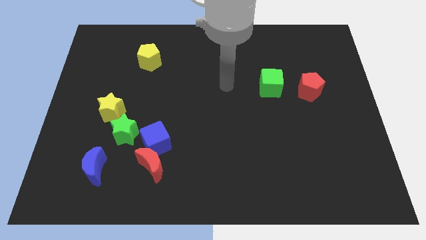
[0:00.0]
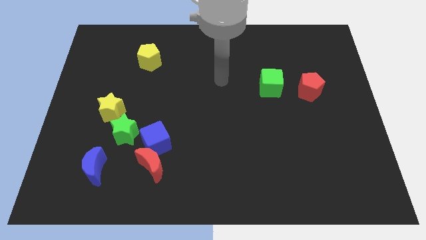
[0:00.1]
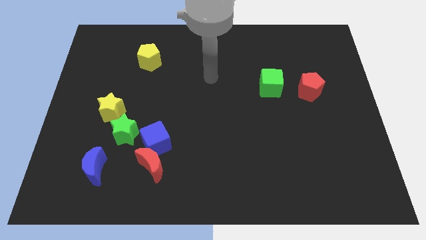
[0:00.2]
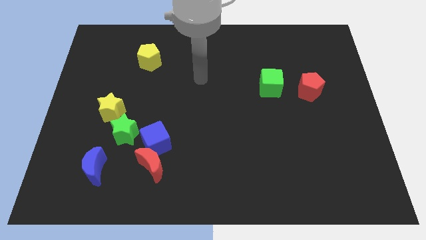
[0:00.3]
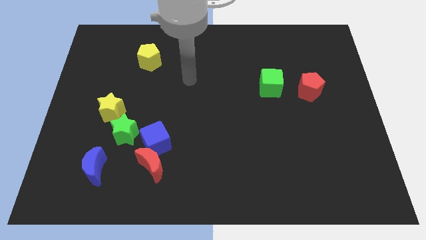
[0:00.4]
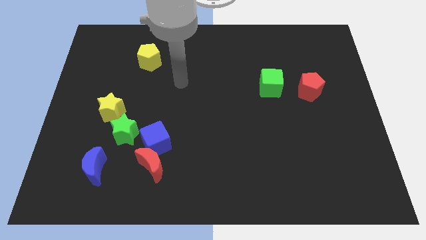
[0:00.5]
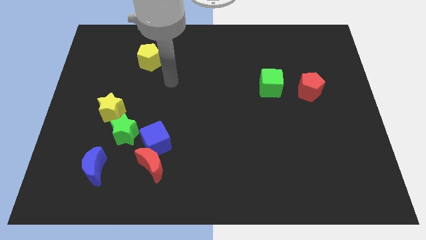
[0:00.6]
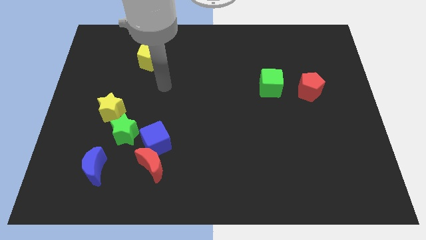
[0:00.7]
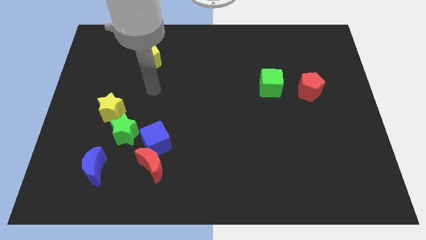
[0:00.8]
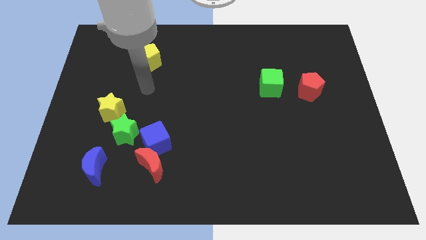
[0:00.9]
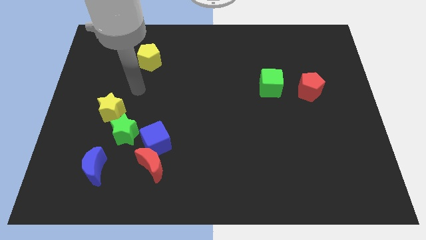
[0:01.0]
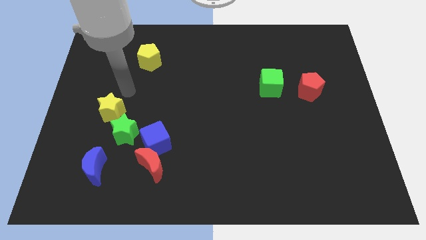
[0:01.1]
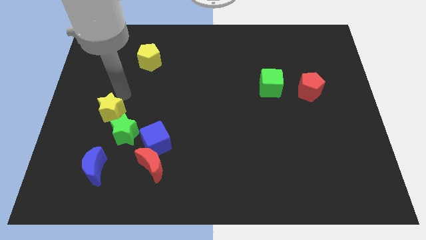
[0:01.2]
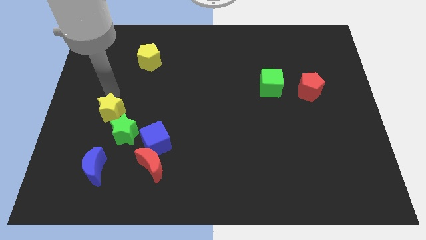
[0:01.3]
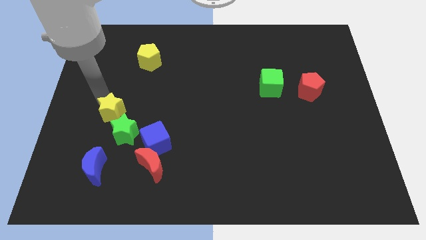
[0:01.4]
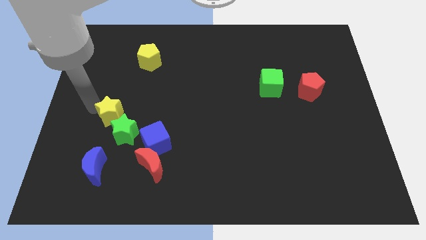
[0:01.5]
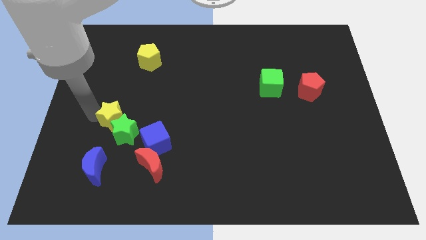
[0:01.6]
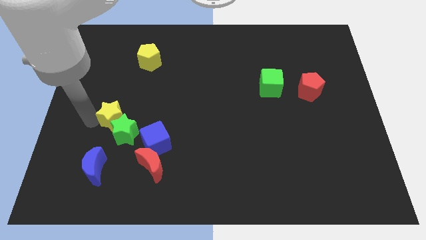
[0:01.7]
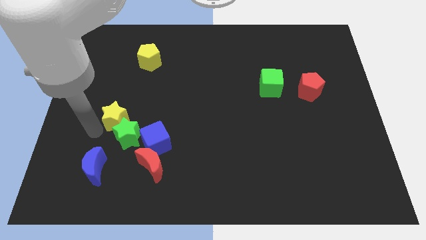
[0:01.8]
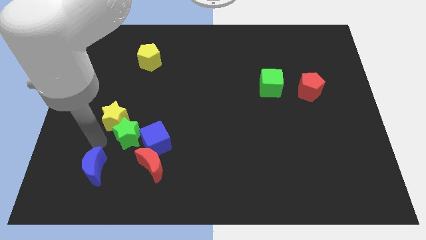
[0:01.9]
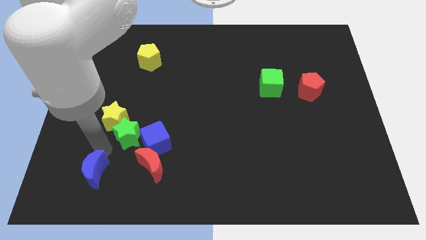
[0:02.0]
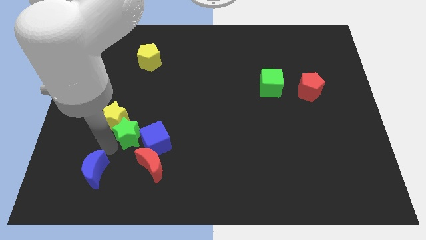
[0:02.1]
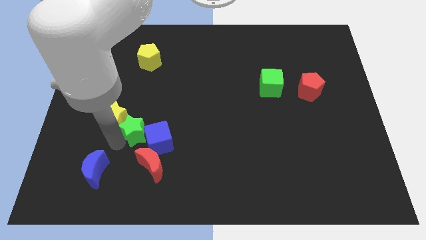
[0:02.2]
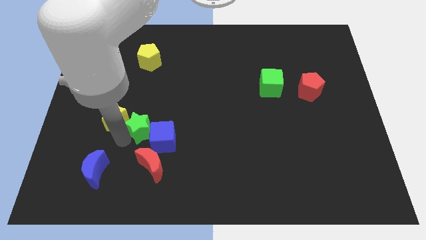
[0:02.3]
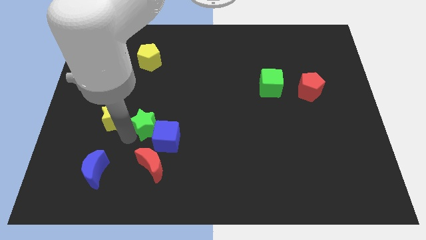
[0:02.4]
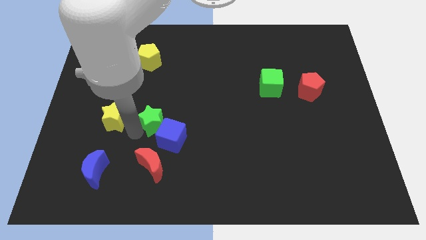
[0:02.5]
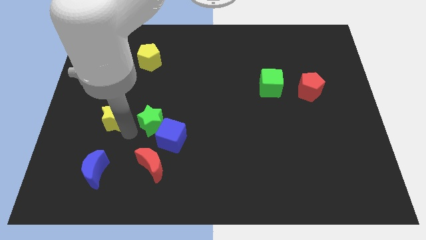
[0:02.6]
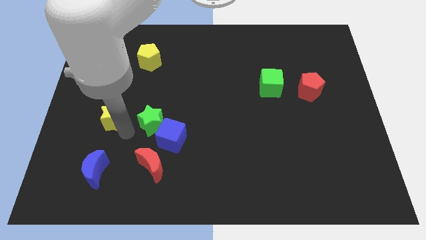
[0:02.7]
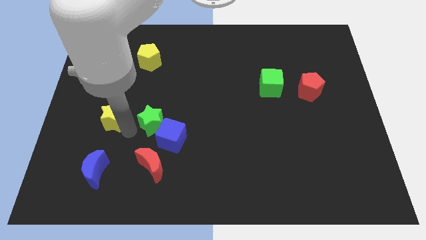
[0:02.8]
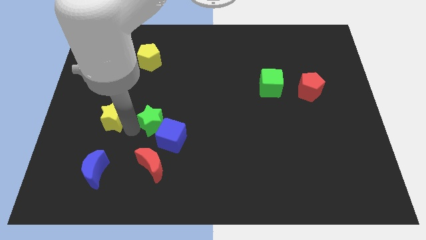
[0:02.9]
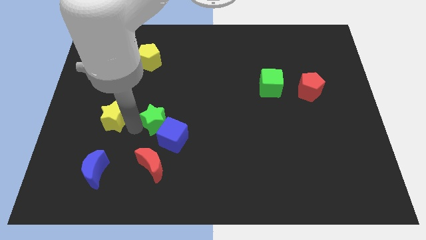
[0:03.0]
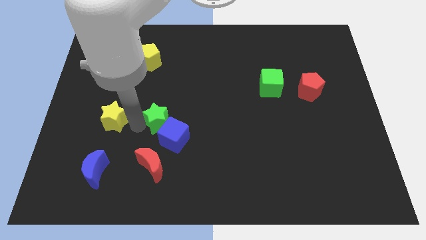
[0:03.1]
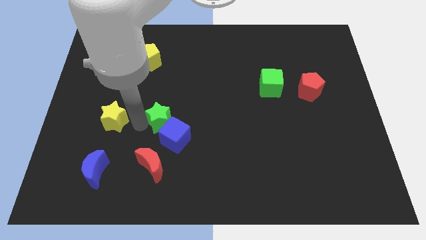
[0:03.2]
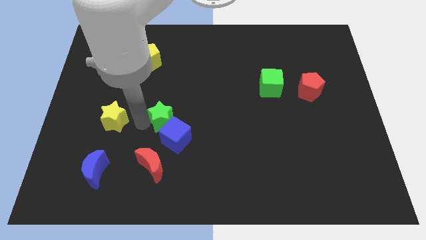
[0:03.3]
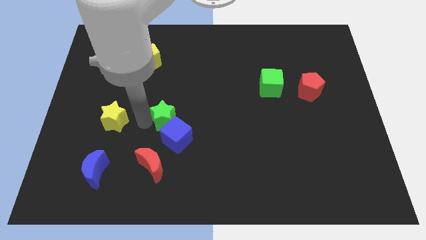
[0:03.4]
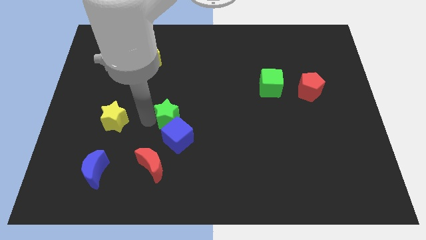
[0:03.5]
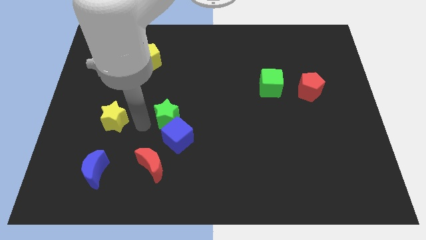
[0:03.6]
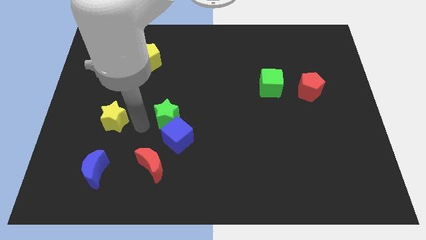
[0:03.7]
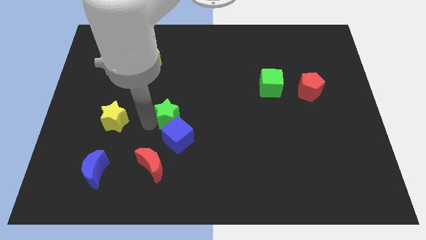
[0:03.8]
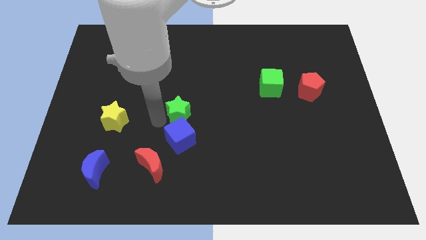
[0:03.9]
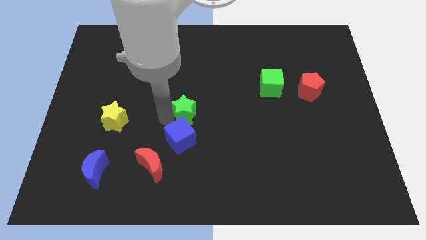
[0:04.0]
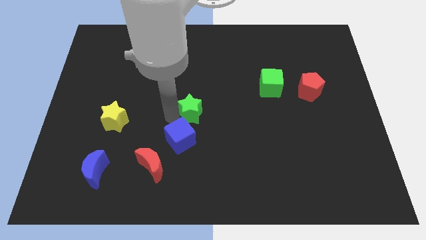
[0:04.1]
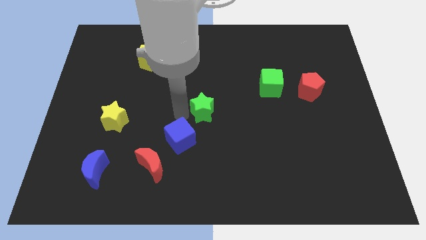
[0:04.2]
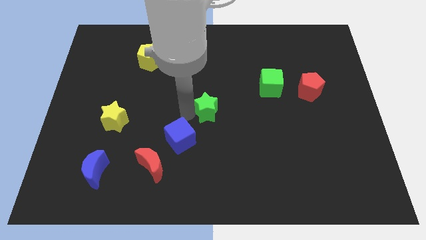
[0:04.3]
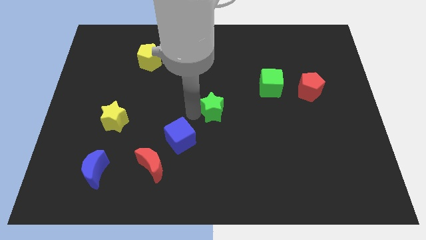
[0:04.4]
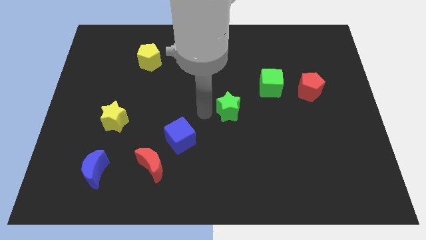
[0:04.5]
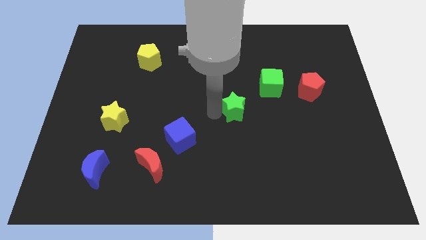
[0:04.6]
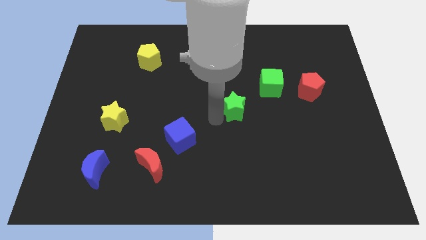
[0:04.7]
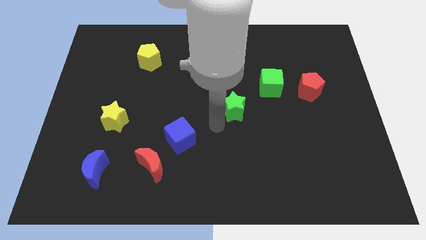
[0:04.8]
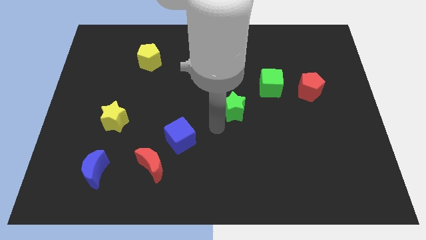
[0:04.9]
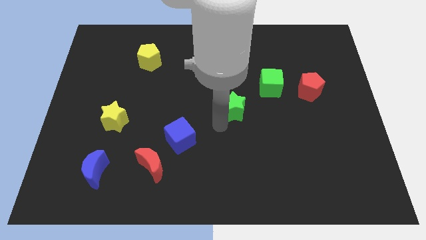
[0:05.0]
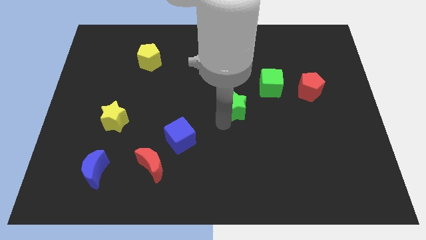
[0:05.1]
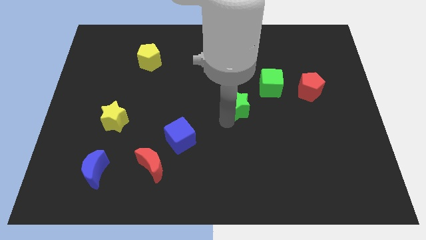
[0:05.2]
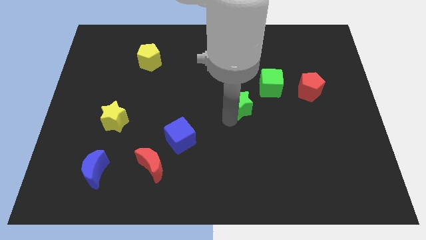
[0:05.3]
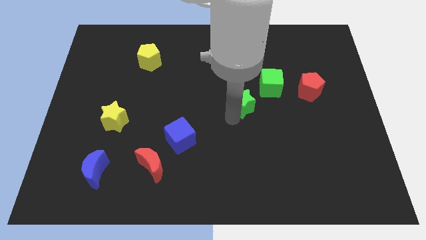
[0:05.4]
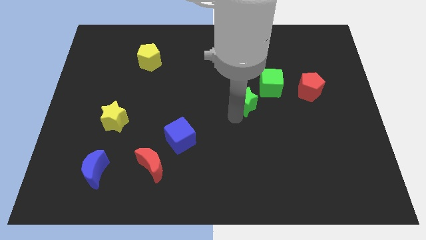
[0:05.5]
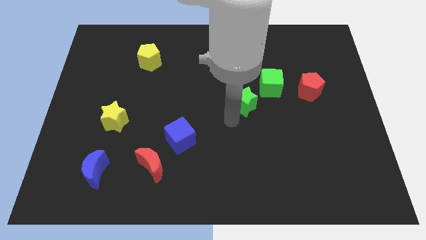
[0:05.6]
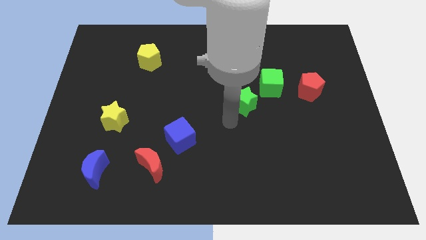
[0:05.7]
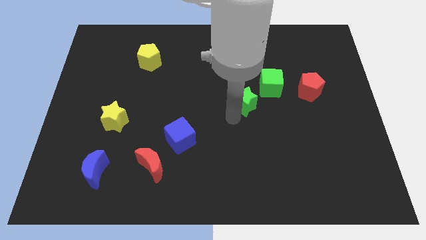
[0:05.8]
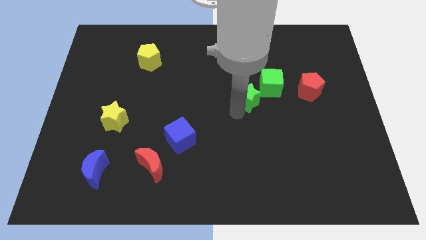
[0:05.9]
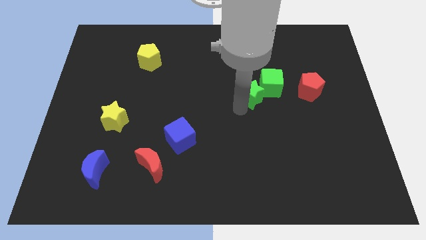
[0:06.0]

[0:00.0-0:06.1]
move the green star close to the green cube

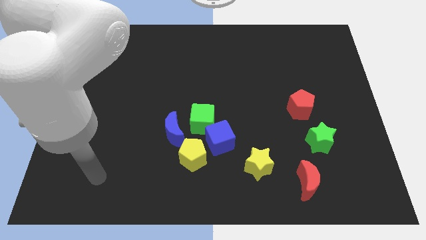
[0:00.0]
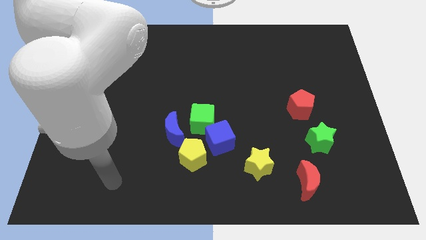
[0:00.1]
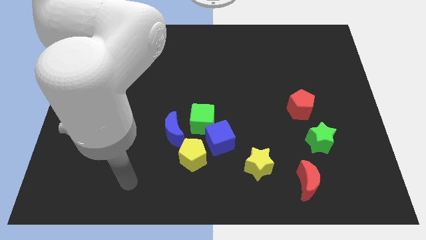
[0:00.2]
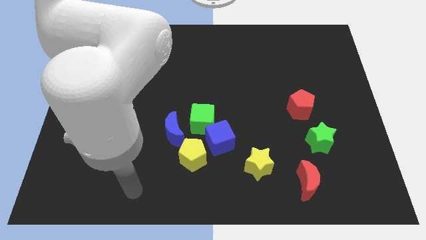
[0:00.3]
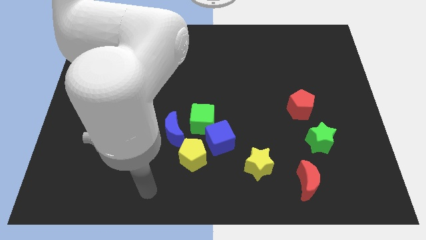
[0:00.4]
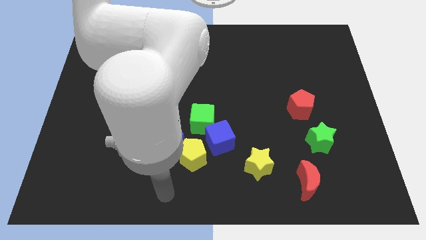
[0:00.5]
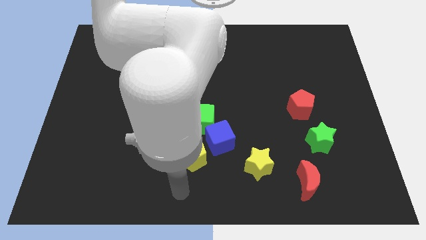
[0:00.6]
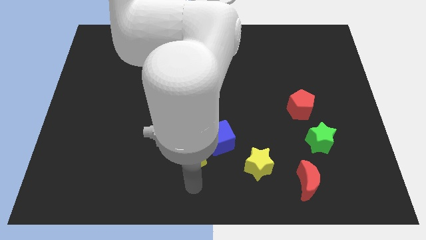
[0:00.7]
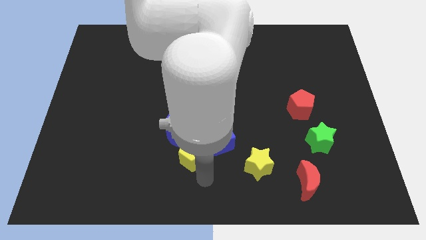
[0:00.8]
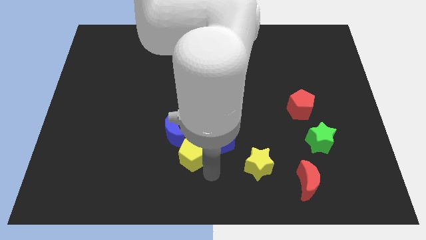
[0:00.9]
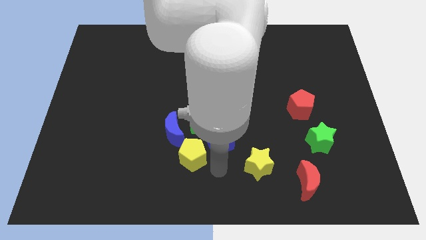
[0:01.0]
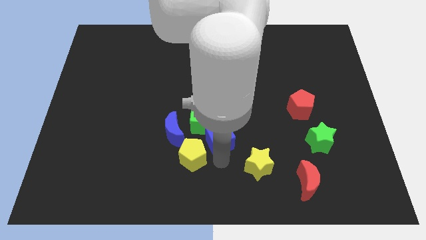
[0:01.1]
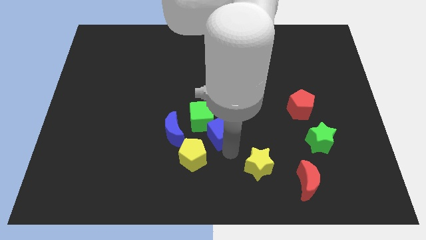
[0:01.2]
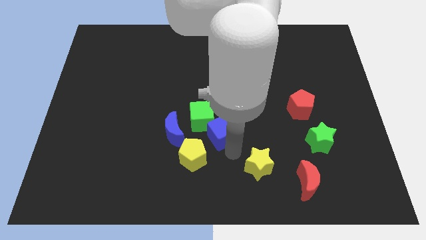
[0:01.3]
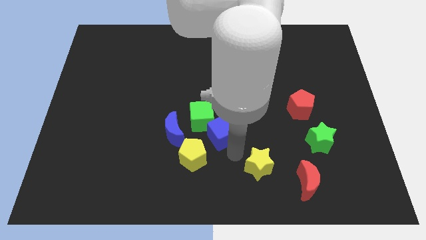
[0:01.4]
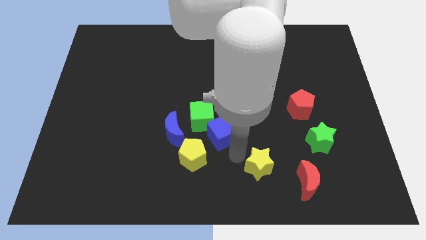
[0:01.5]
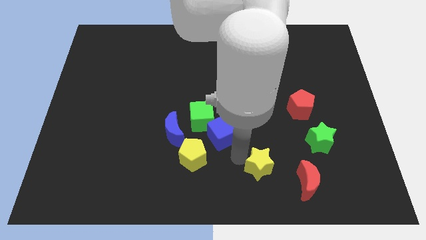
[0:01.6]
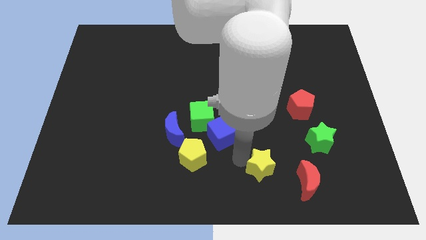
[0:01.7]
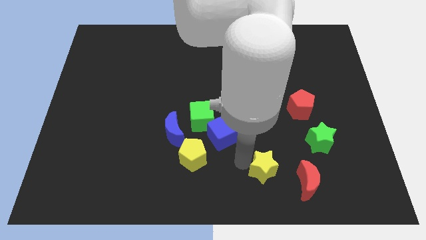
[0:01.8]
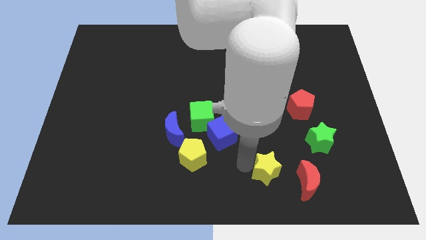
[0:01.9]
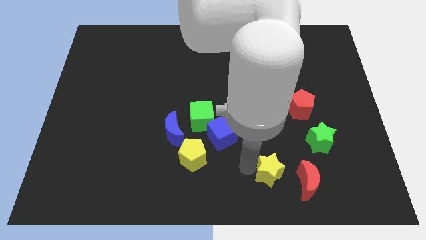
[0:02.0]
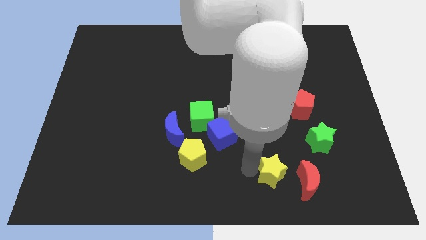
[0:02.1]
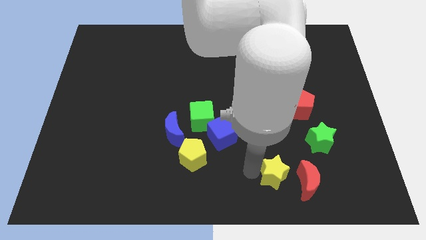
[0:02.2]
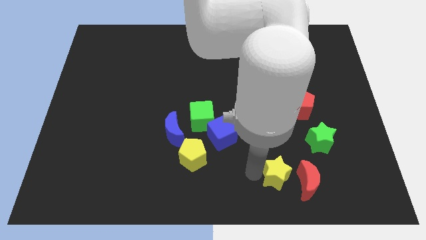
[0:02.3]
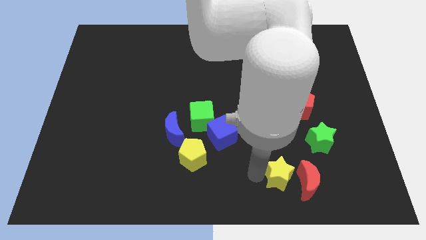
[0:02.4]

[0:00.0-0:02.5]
move the yellow star close to the red moon
